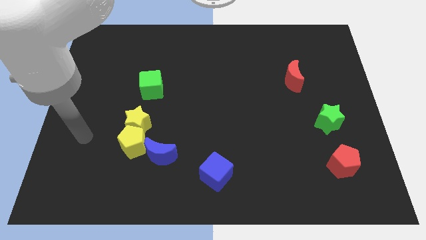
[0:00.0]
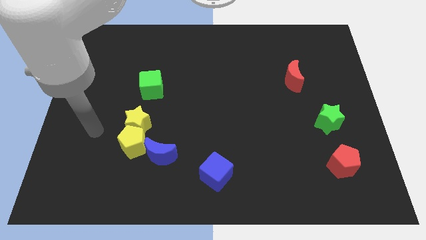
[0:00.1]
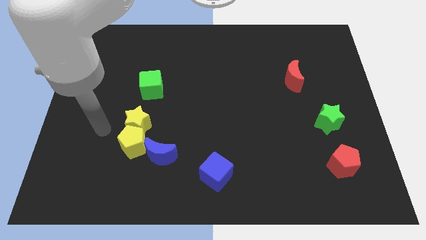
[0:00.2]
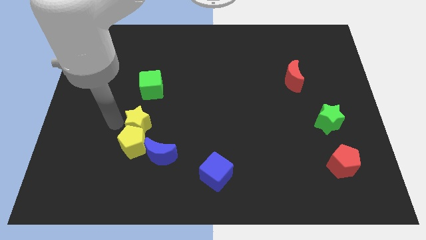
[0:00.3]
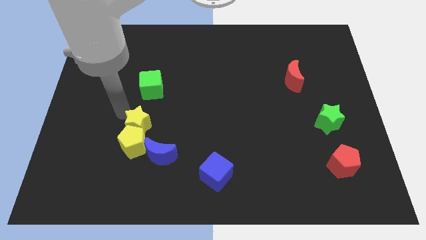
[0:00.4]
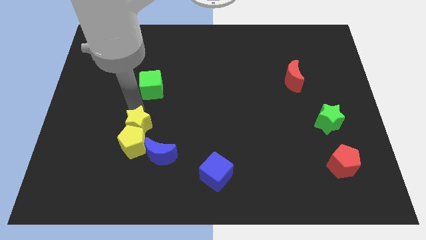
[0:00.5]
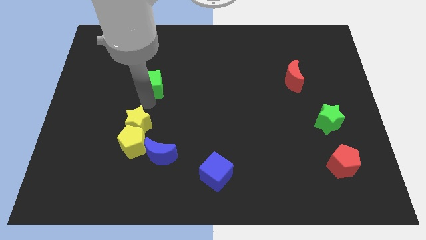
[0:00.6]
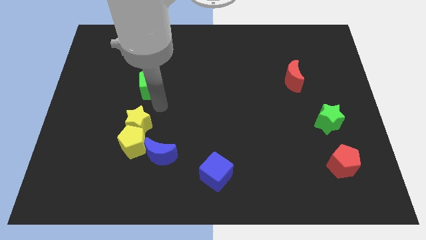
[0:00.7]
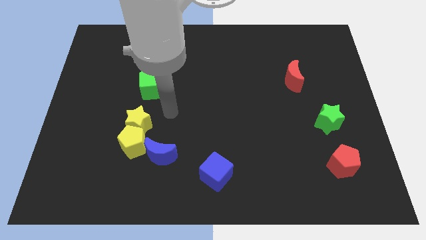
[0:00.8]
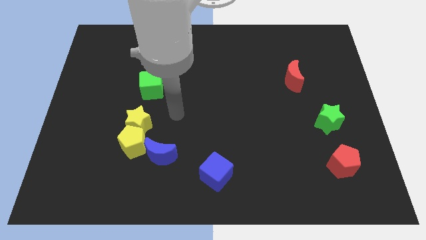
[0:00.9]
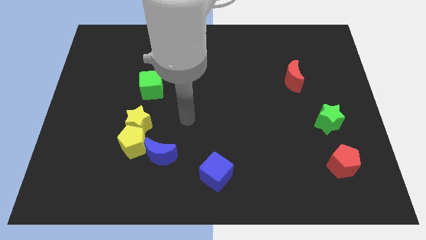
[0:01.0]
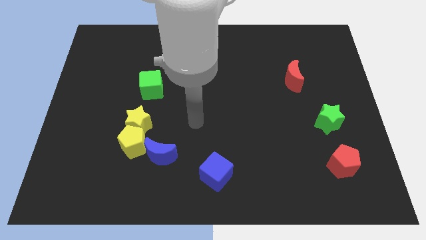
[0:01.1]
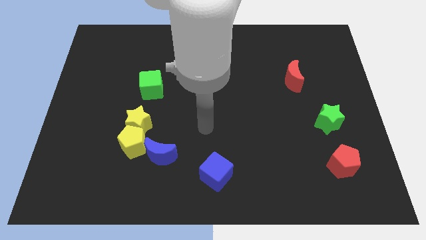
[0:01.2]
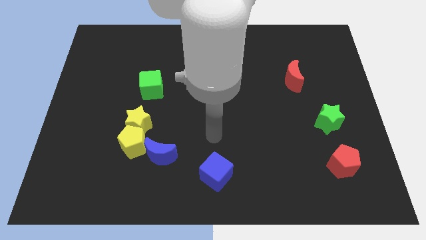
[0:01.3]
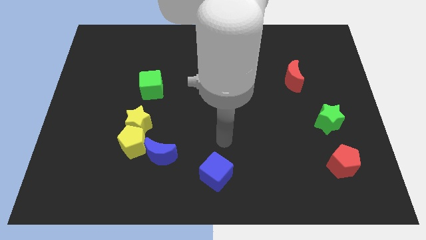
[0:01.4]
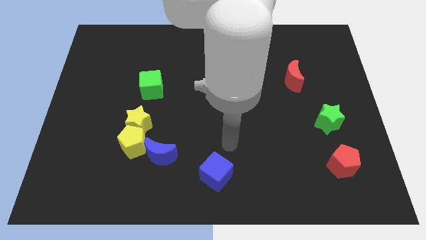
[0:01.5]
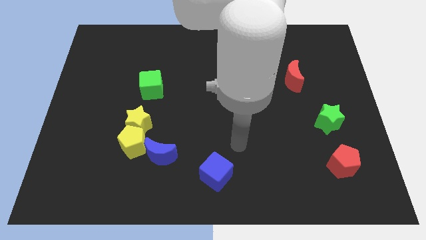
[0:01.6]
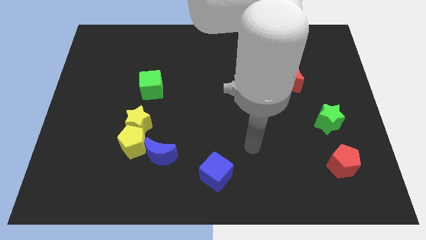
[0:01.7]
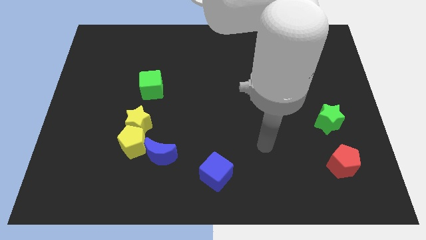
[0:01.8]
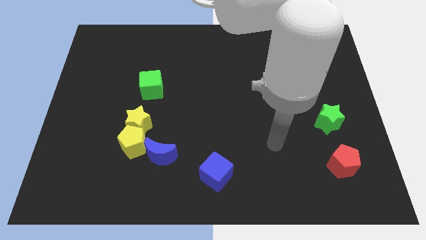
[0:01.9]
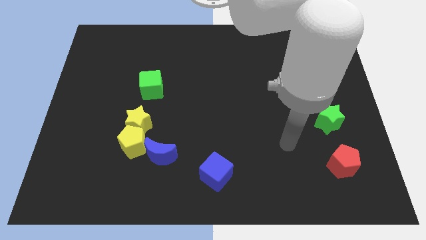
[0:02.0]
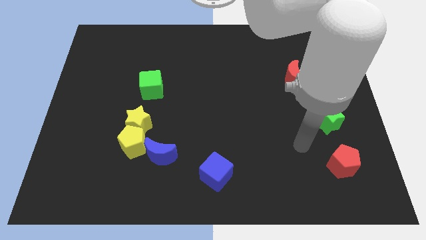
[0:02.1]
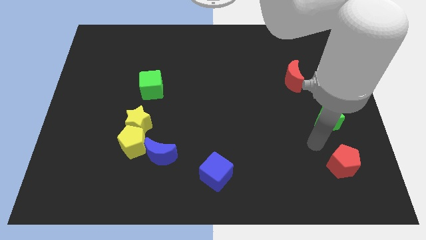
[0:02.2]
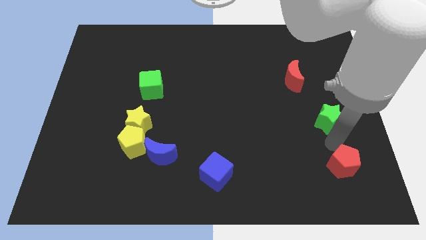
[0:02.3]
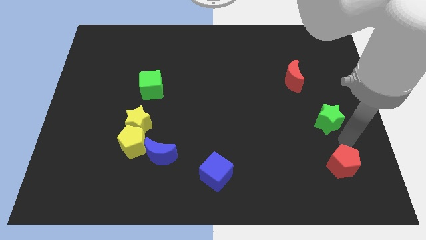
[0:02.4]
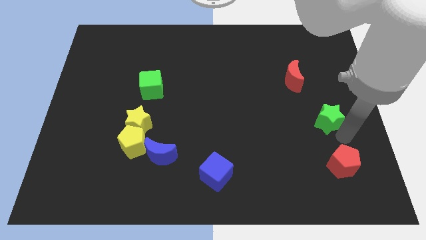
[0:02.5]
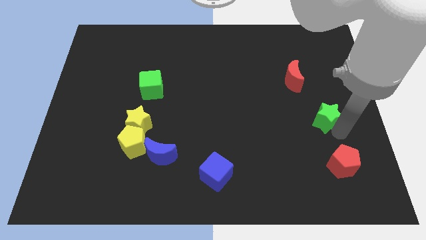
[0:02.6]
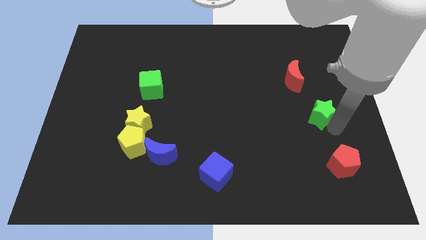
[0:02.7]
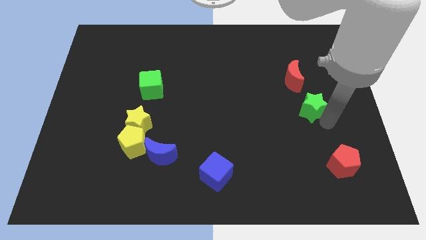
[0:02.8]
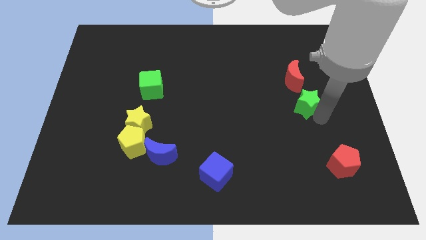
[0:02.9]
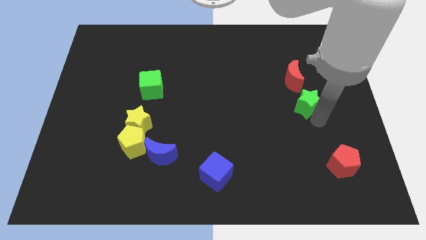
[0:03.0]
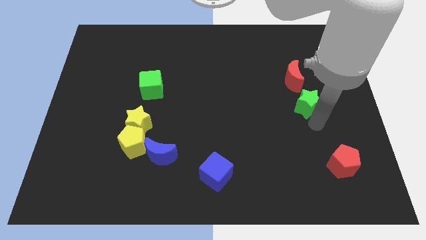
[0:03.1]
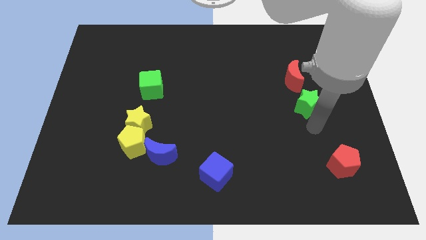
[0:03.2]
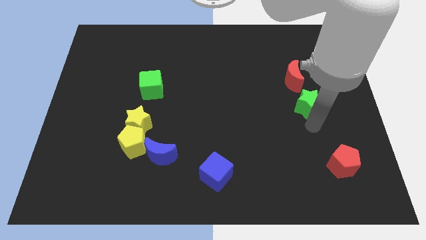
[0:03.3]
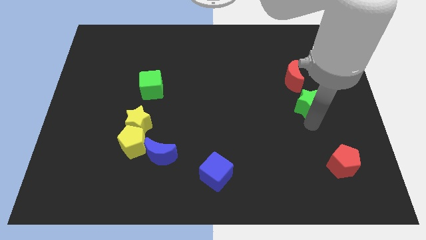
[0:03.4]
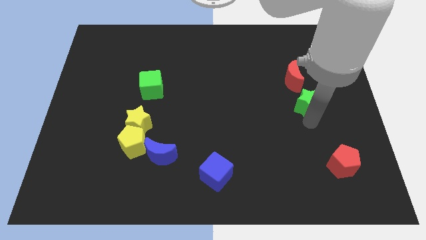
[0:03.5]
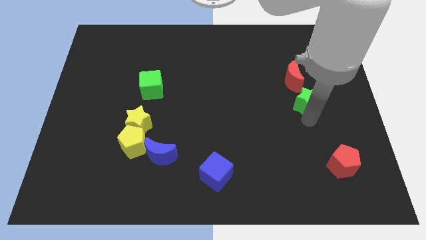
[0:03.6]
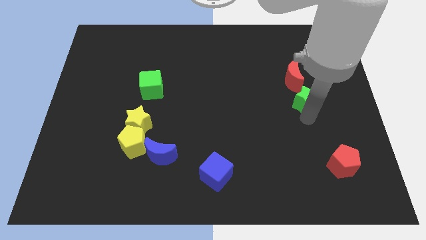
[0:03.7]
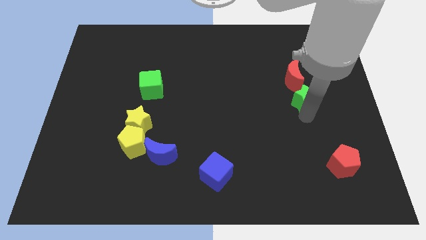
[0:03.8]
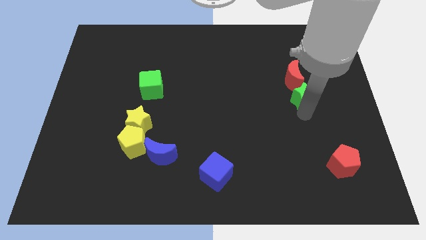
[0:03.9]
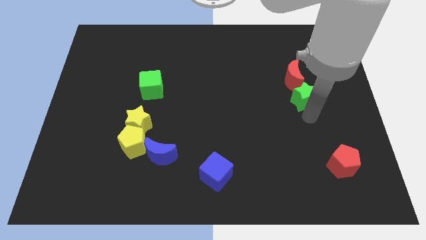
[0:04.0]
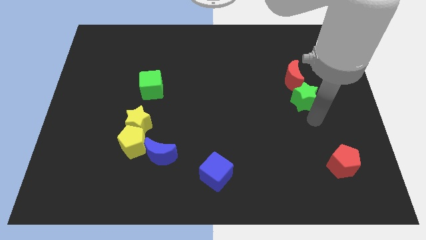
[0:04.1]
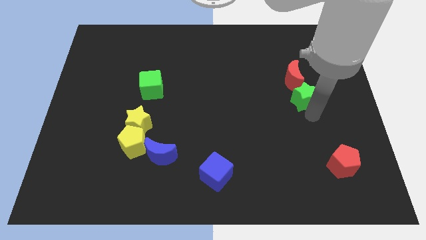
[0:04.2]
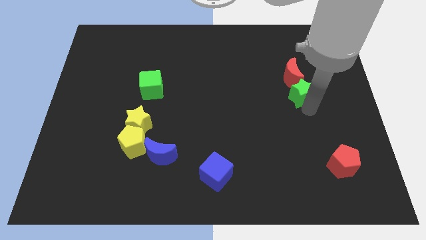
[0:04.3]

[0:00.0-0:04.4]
push the green star towards the red moon

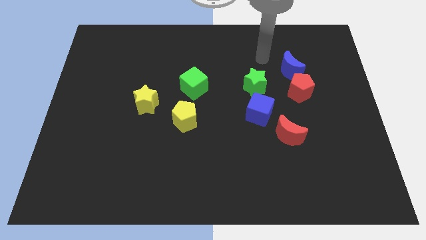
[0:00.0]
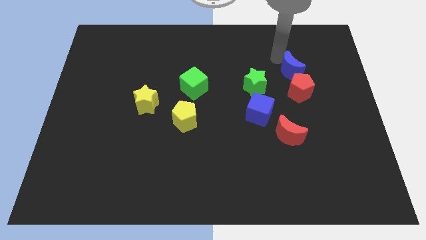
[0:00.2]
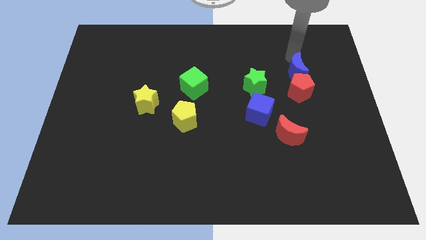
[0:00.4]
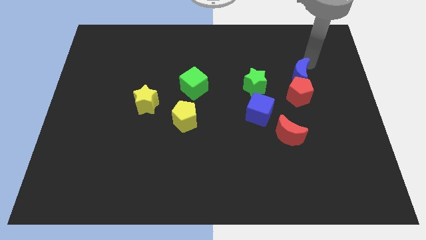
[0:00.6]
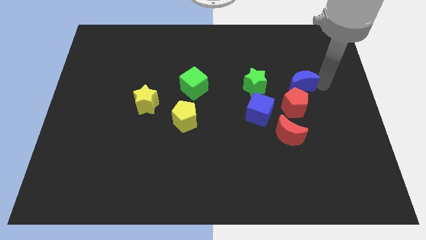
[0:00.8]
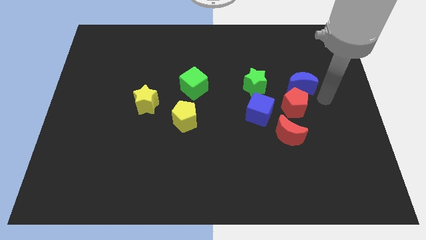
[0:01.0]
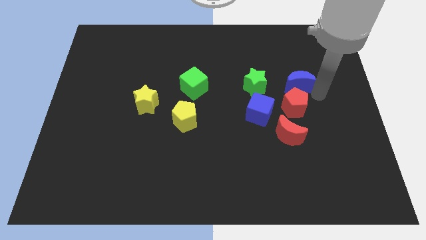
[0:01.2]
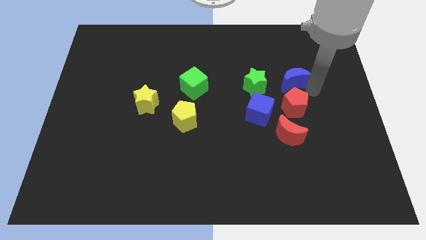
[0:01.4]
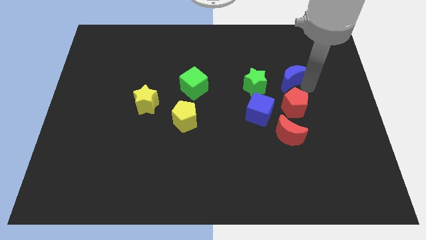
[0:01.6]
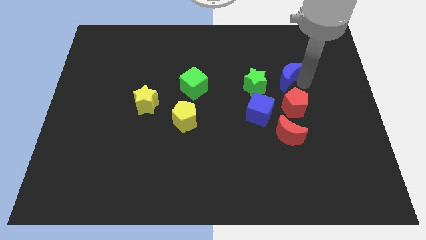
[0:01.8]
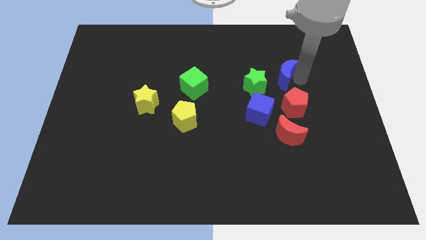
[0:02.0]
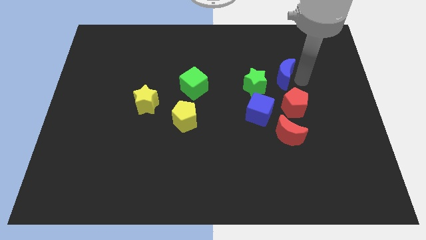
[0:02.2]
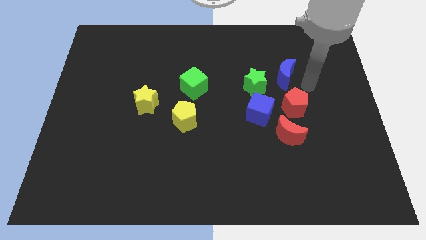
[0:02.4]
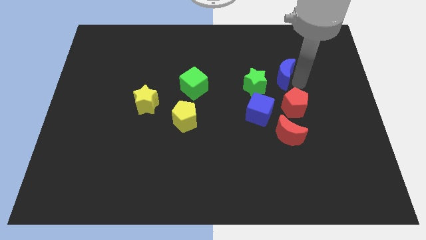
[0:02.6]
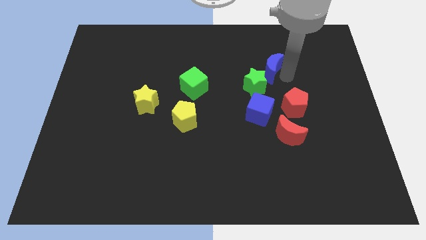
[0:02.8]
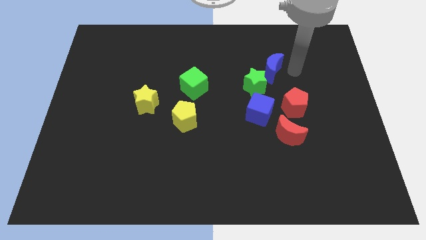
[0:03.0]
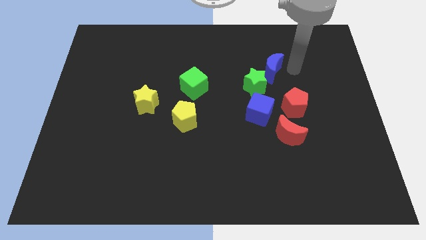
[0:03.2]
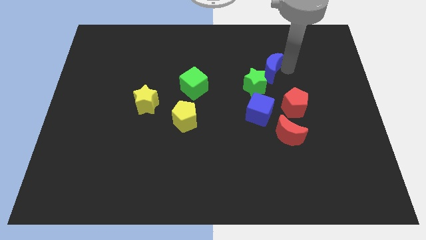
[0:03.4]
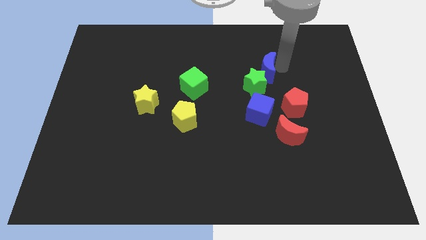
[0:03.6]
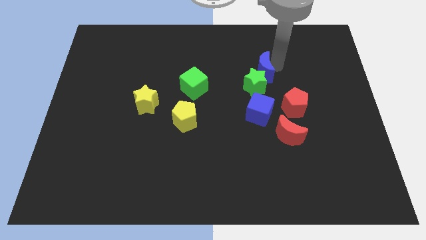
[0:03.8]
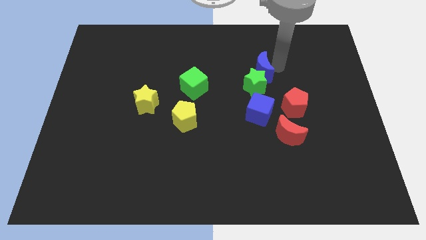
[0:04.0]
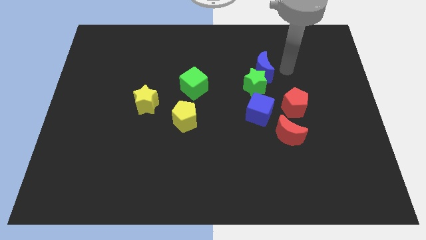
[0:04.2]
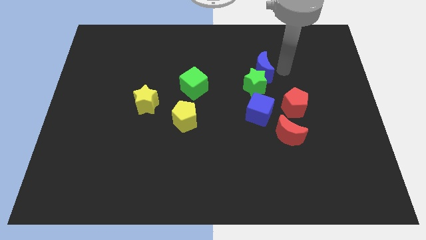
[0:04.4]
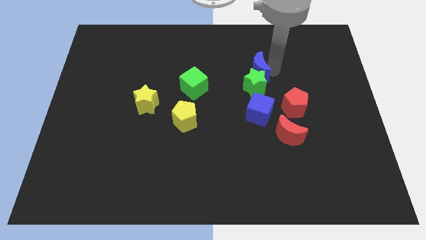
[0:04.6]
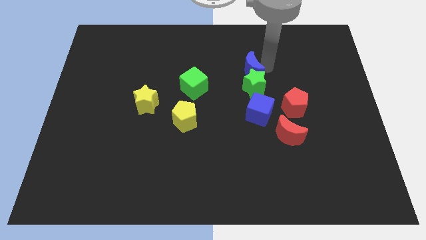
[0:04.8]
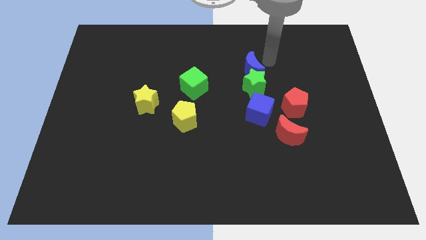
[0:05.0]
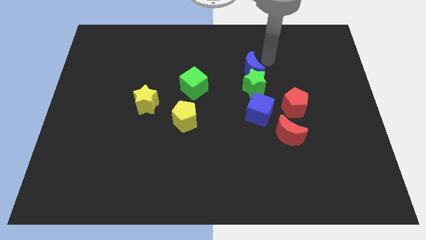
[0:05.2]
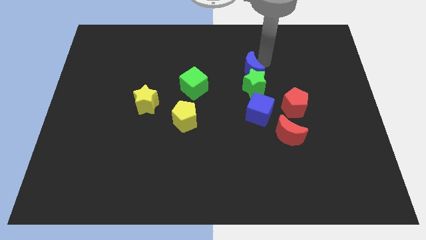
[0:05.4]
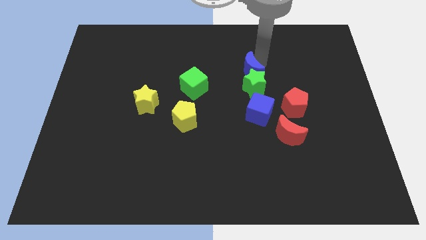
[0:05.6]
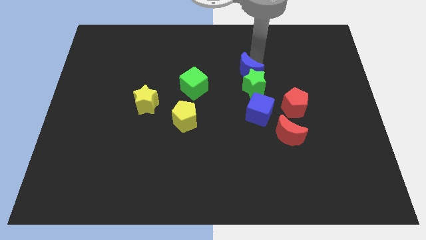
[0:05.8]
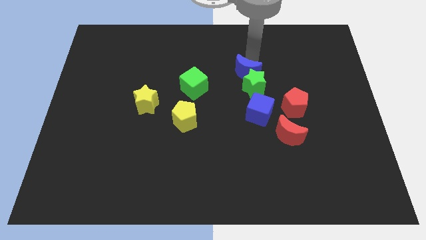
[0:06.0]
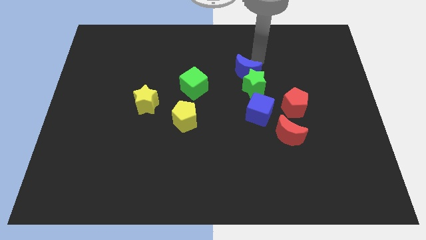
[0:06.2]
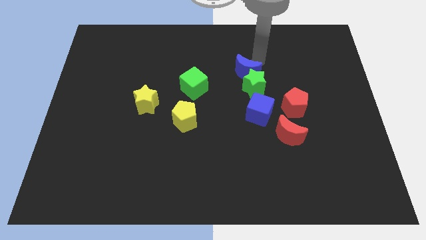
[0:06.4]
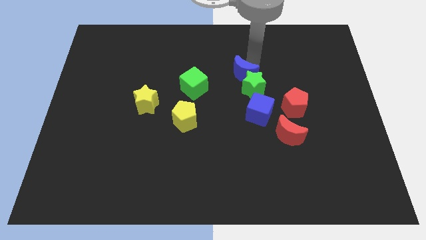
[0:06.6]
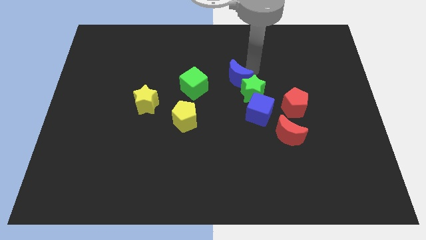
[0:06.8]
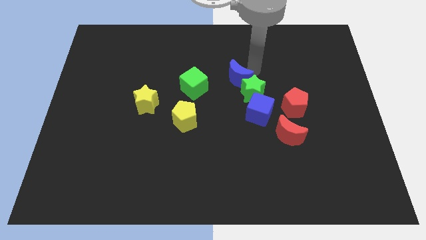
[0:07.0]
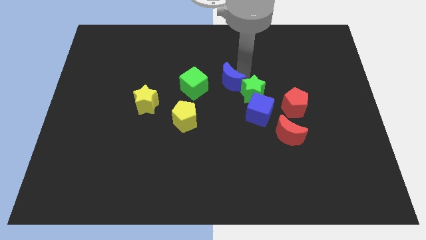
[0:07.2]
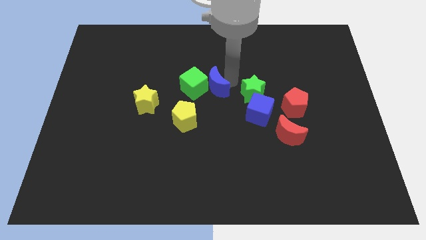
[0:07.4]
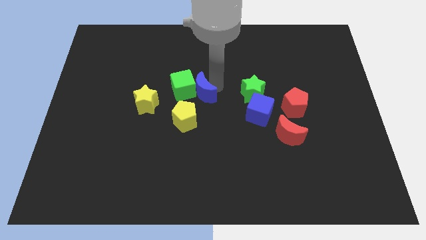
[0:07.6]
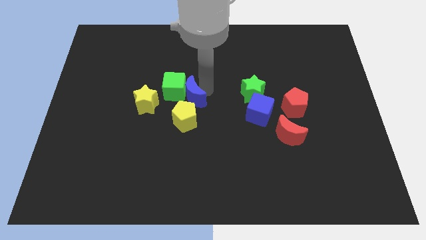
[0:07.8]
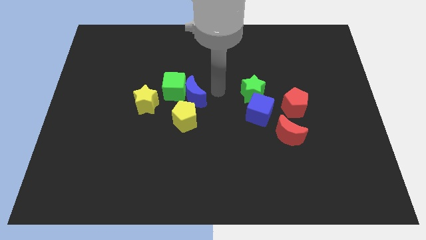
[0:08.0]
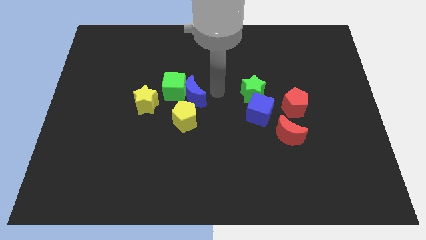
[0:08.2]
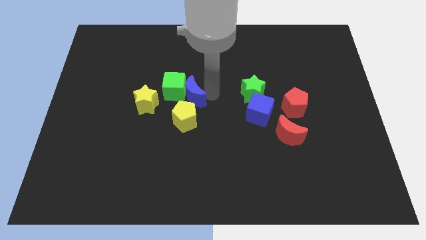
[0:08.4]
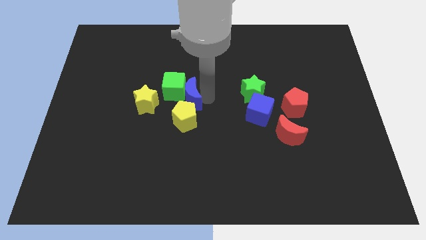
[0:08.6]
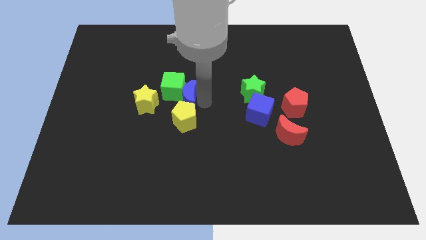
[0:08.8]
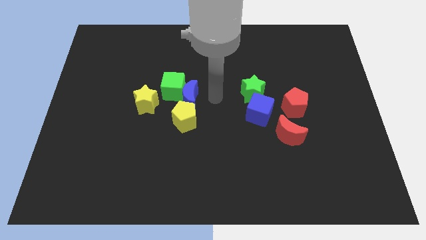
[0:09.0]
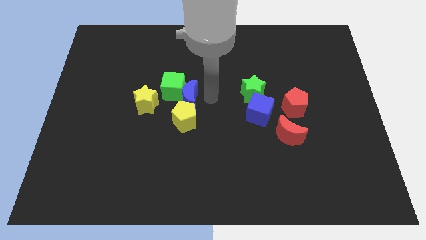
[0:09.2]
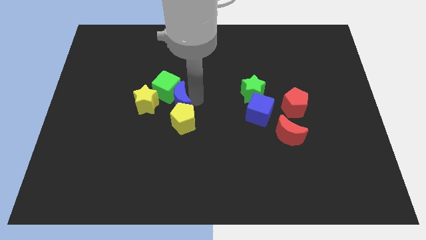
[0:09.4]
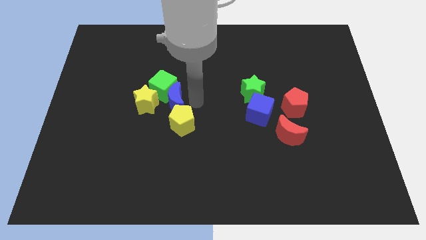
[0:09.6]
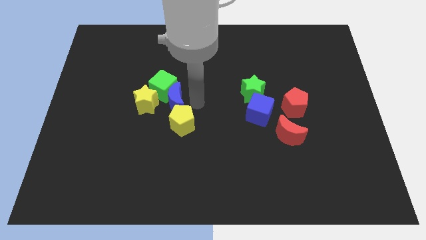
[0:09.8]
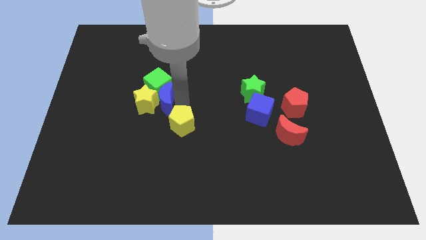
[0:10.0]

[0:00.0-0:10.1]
push the blue moon next to the yellow star
